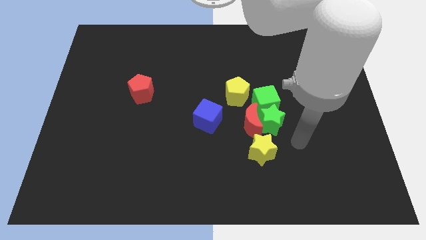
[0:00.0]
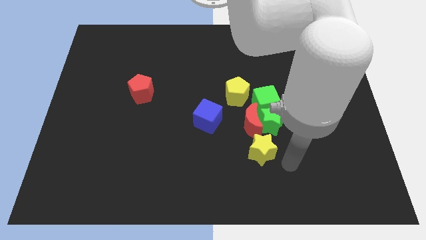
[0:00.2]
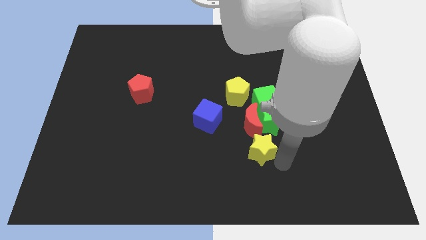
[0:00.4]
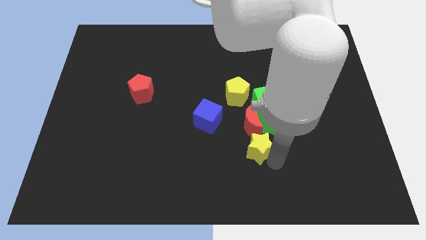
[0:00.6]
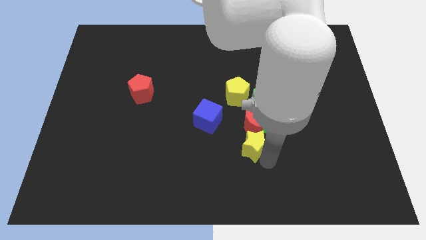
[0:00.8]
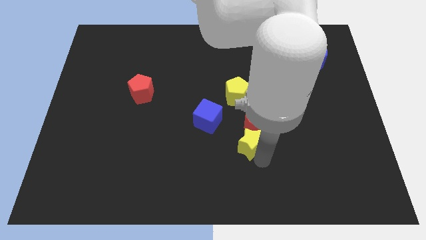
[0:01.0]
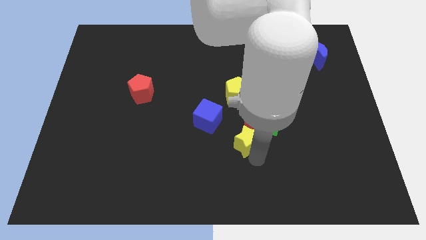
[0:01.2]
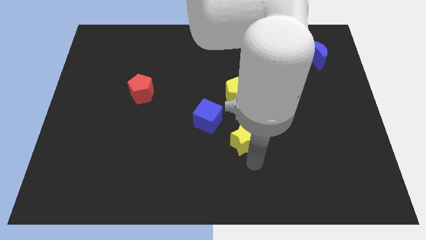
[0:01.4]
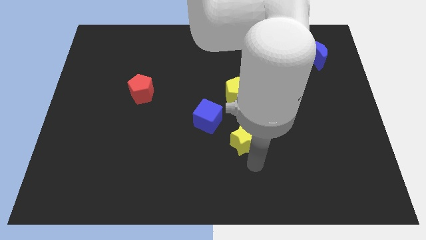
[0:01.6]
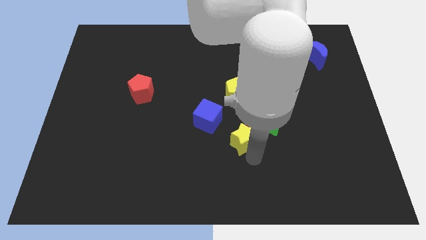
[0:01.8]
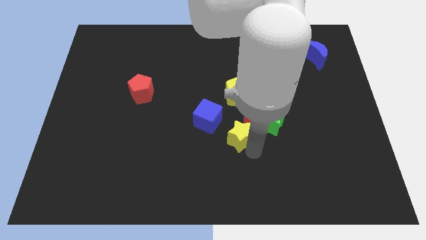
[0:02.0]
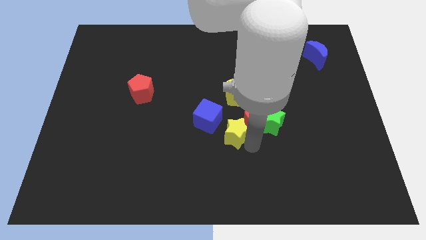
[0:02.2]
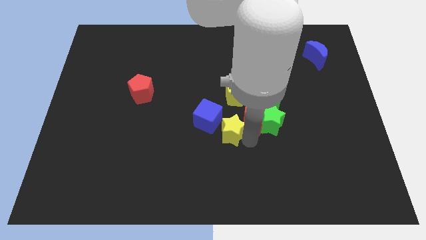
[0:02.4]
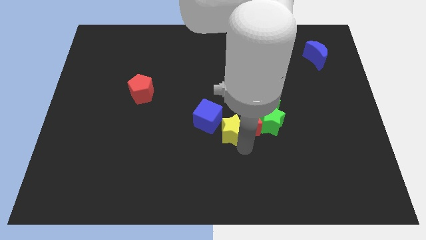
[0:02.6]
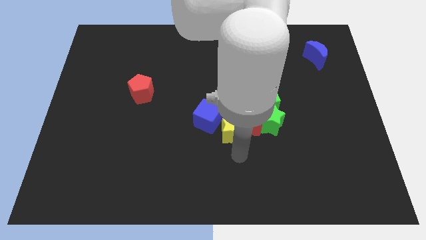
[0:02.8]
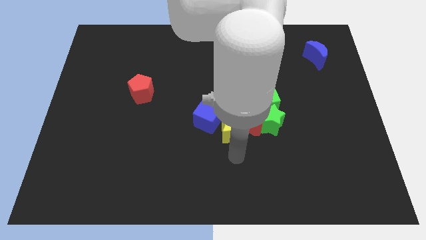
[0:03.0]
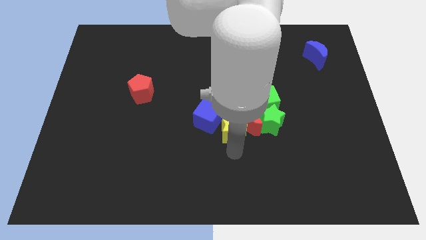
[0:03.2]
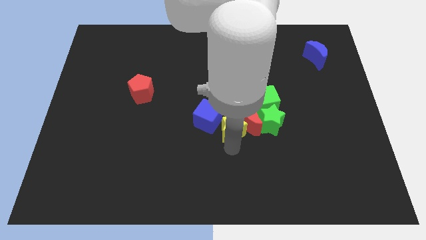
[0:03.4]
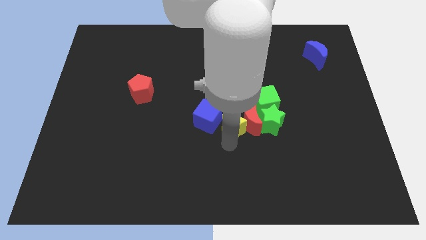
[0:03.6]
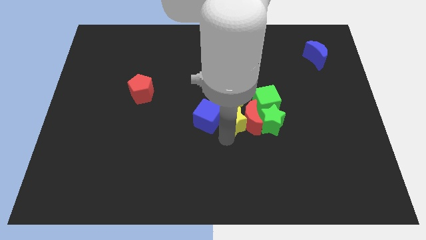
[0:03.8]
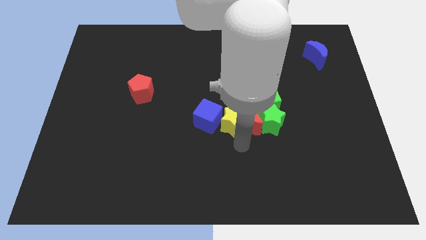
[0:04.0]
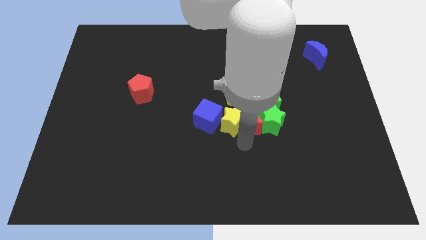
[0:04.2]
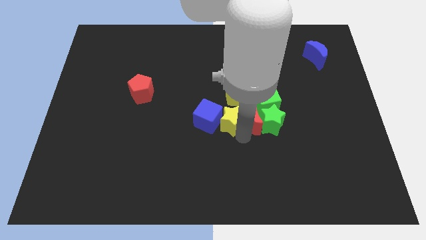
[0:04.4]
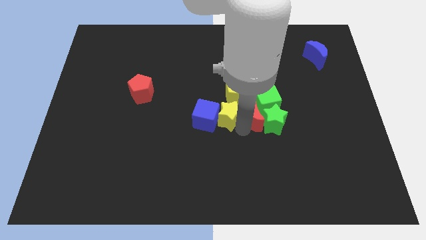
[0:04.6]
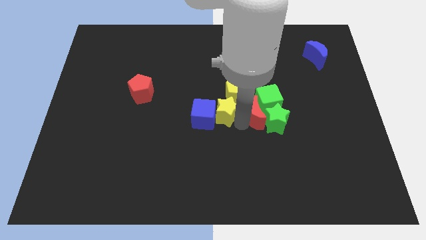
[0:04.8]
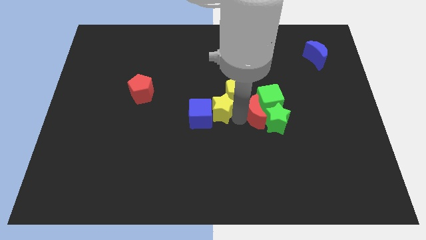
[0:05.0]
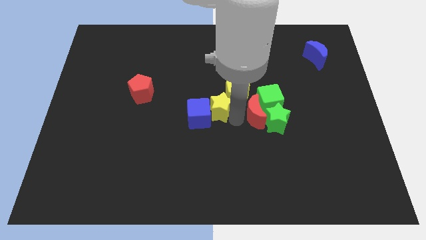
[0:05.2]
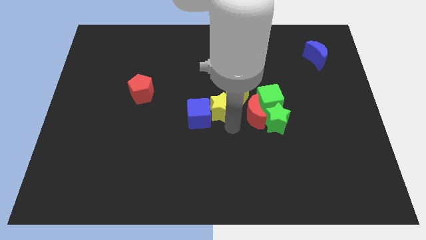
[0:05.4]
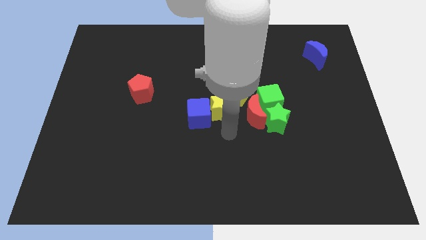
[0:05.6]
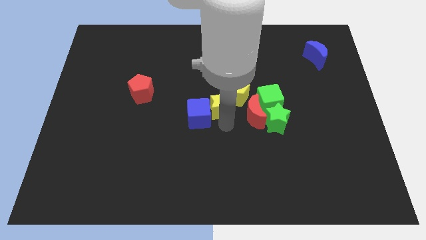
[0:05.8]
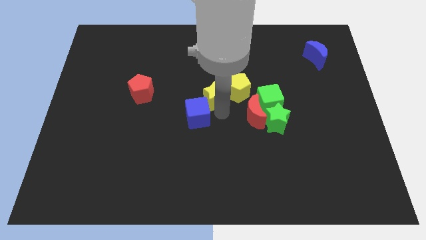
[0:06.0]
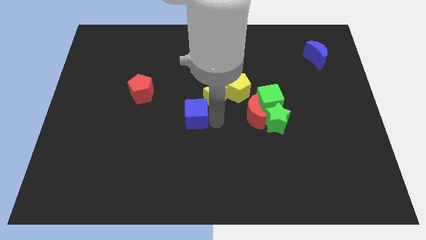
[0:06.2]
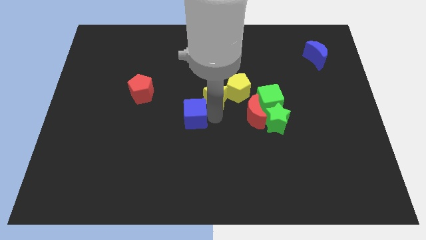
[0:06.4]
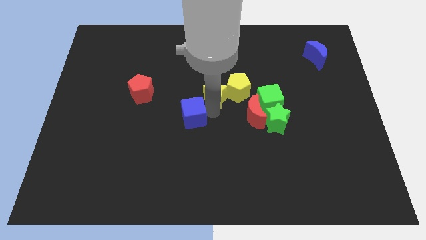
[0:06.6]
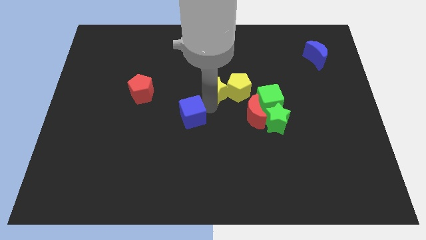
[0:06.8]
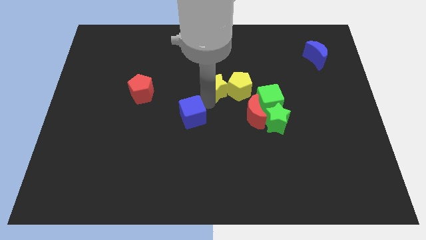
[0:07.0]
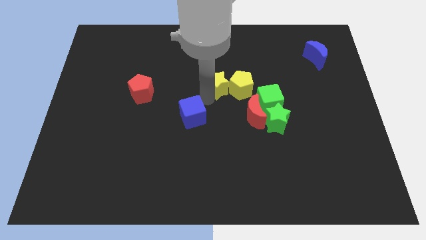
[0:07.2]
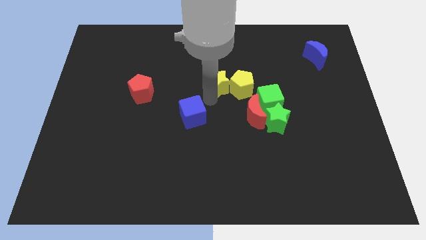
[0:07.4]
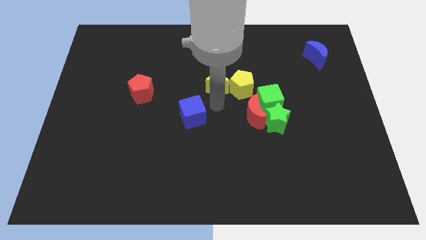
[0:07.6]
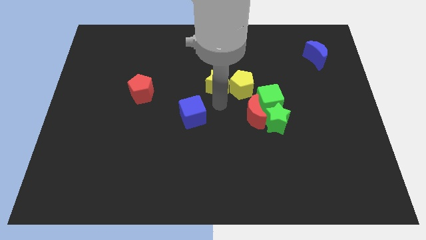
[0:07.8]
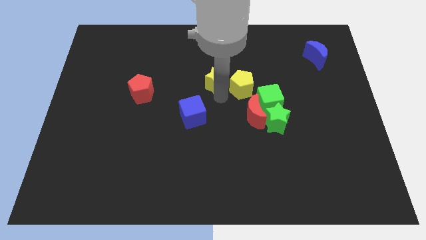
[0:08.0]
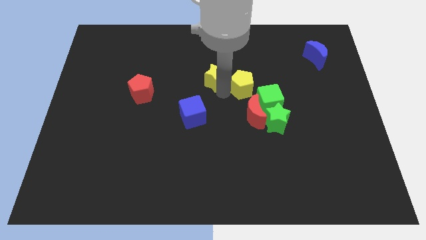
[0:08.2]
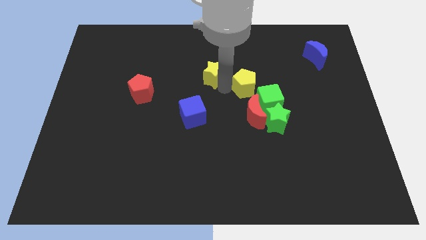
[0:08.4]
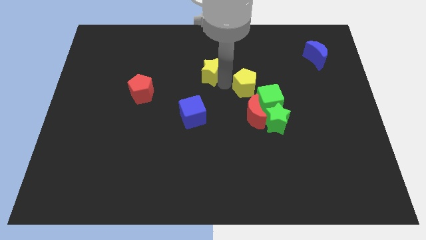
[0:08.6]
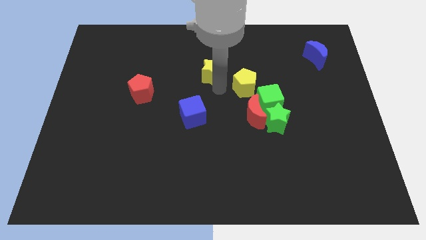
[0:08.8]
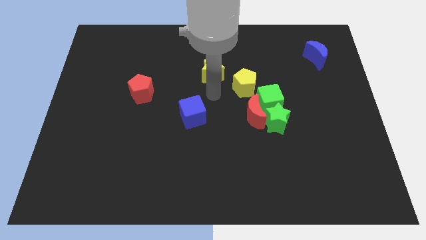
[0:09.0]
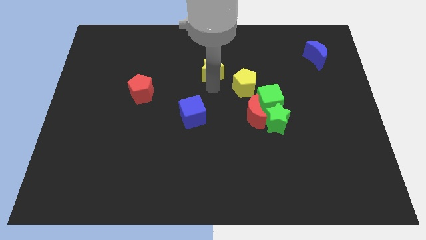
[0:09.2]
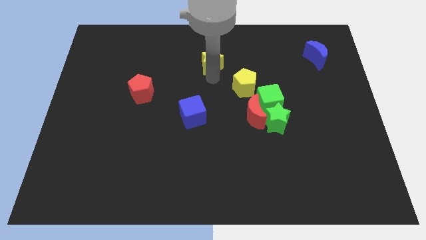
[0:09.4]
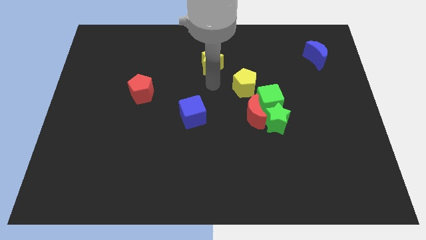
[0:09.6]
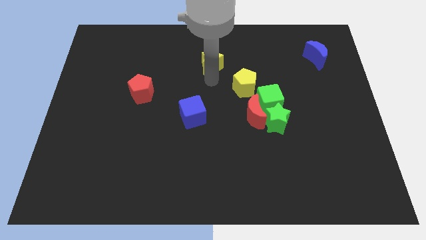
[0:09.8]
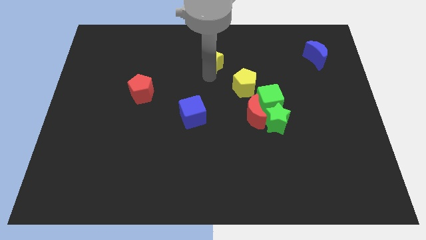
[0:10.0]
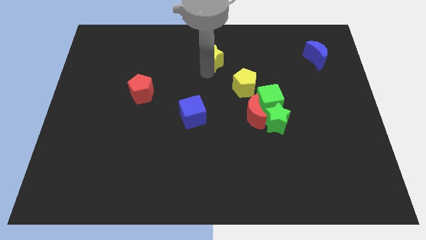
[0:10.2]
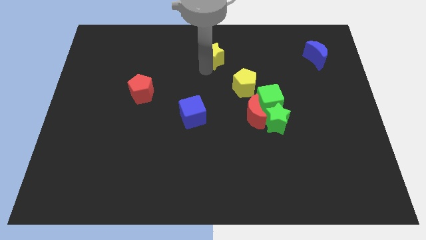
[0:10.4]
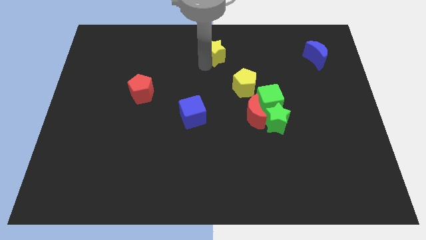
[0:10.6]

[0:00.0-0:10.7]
move the yellow star to the top side
